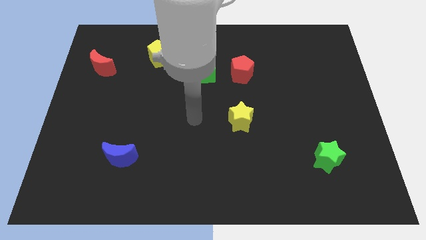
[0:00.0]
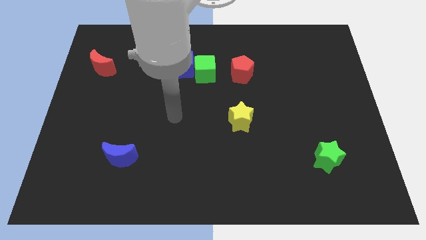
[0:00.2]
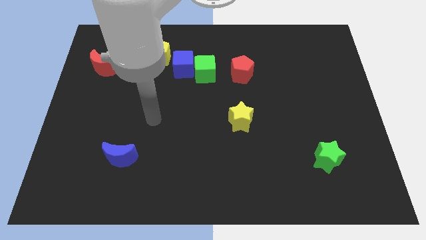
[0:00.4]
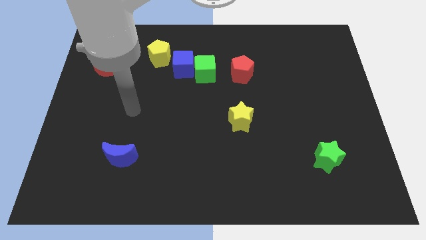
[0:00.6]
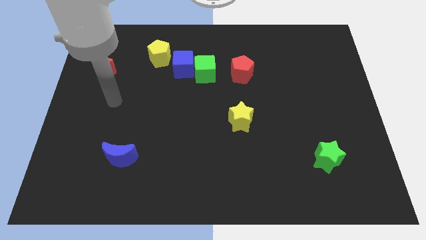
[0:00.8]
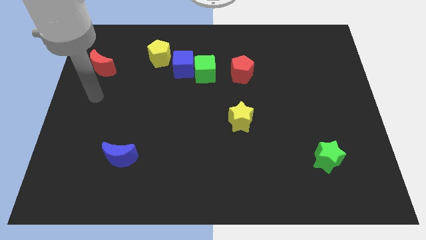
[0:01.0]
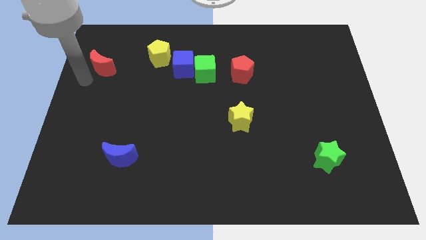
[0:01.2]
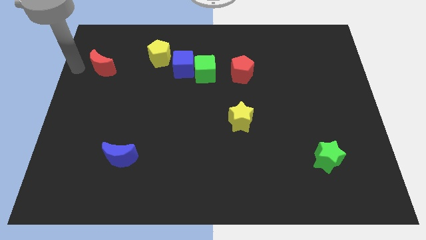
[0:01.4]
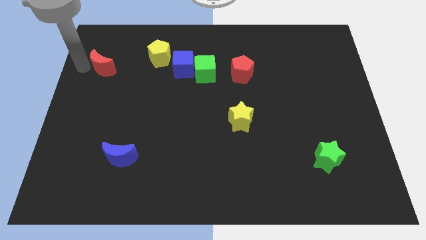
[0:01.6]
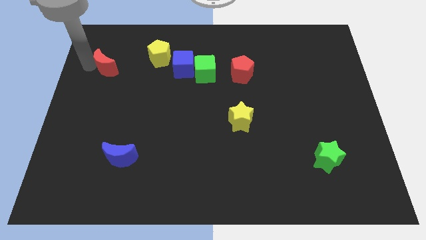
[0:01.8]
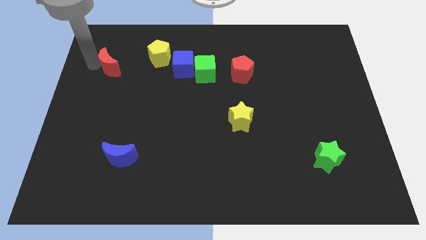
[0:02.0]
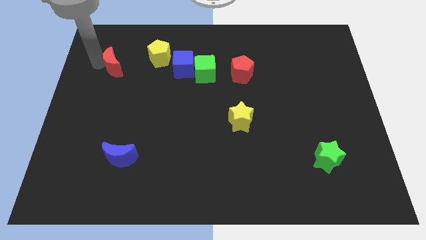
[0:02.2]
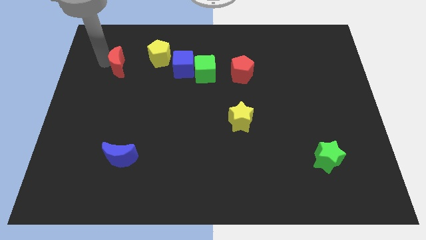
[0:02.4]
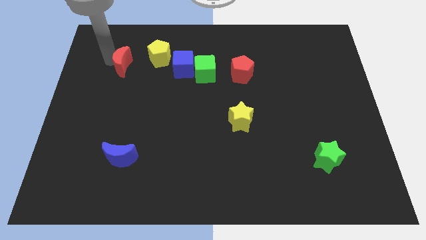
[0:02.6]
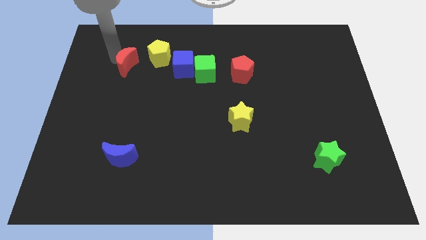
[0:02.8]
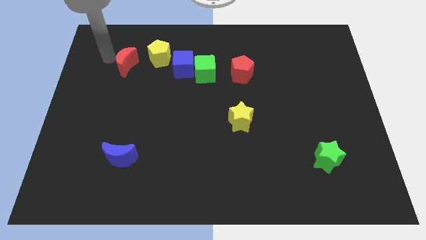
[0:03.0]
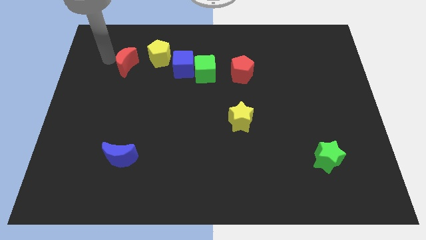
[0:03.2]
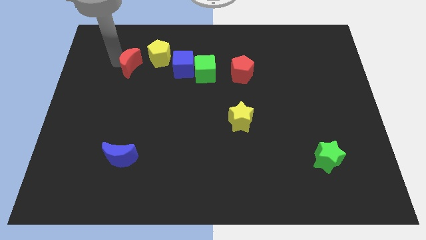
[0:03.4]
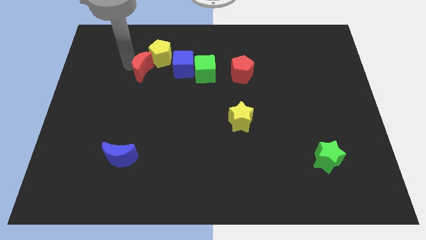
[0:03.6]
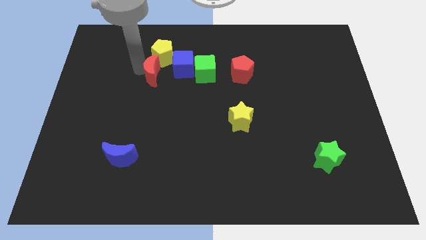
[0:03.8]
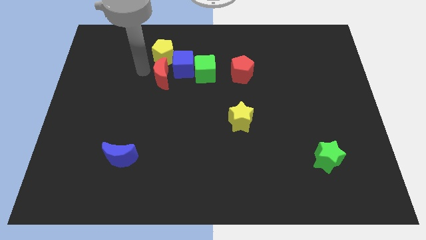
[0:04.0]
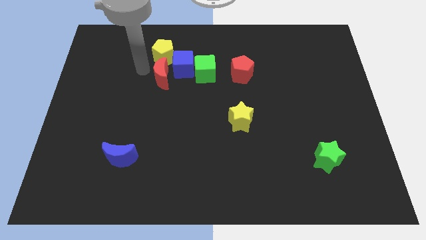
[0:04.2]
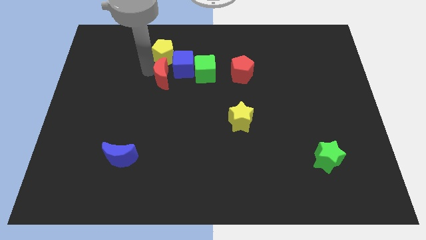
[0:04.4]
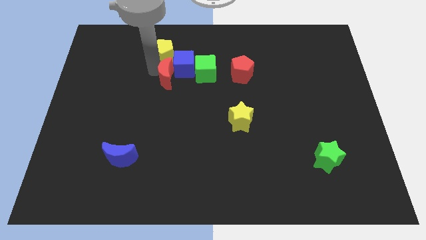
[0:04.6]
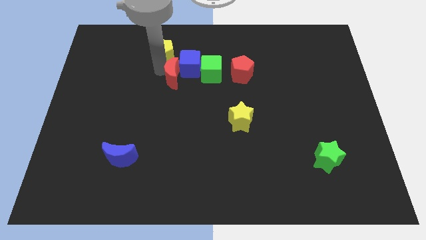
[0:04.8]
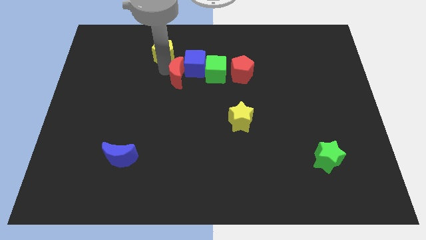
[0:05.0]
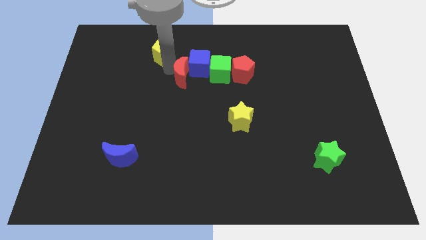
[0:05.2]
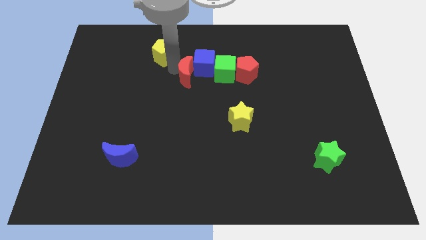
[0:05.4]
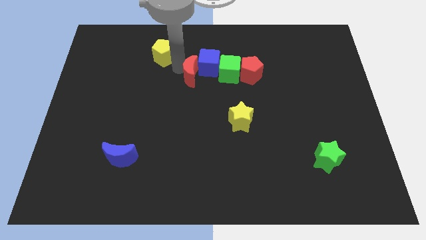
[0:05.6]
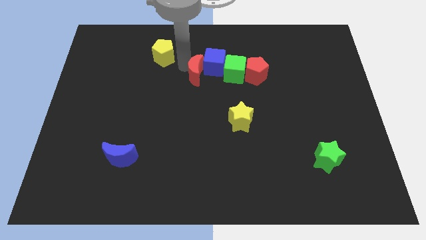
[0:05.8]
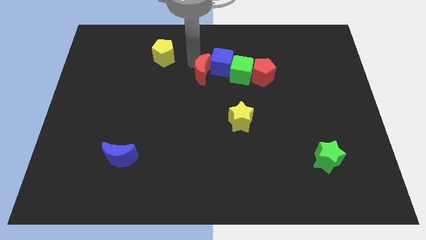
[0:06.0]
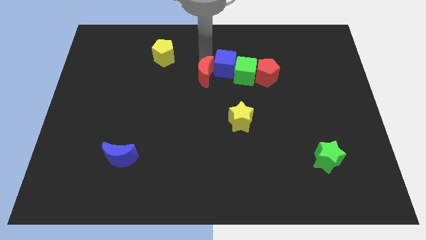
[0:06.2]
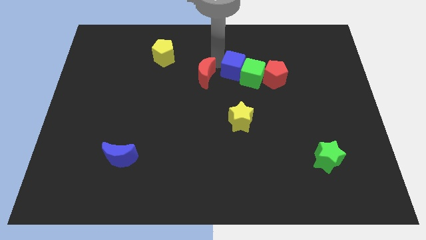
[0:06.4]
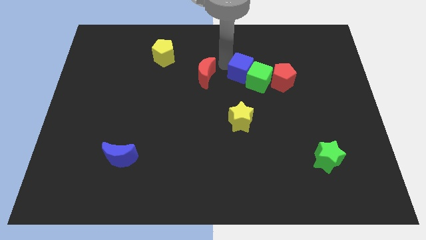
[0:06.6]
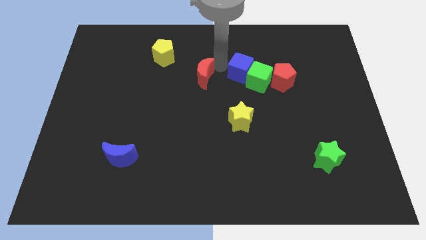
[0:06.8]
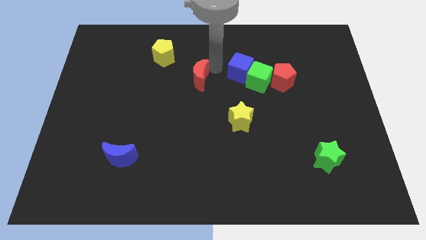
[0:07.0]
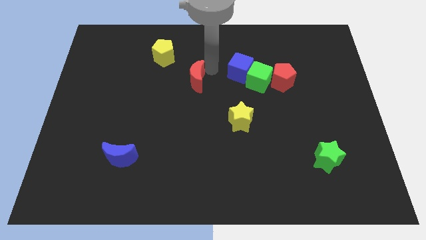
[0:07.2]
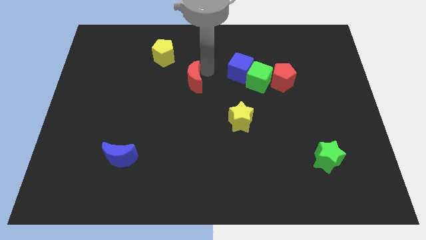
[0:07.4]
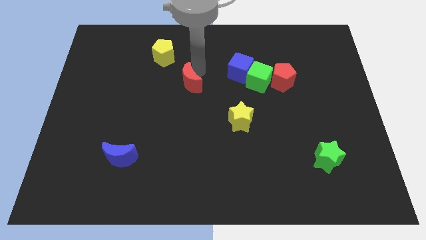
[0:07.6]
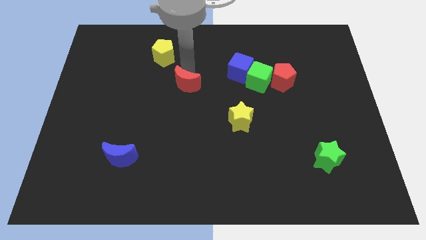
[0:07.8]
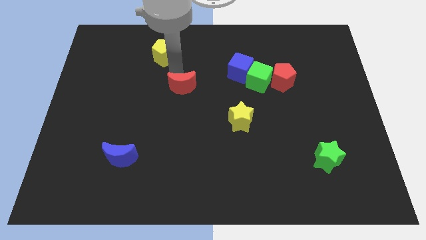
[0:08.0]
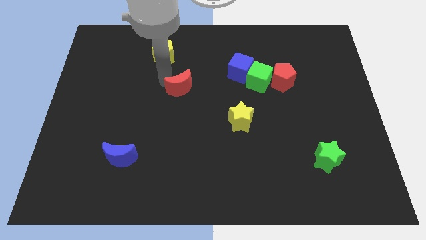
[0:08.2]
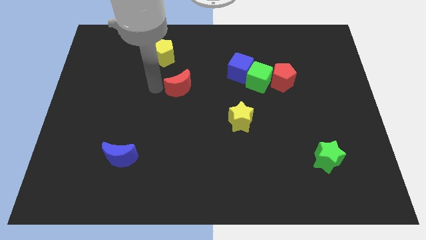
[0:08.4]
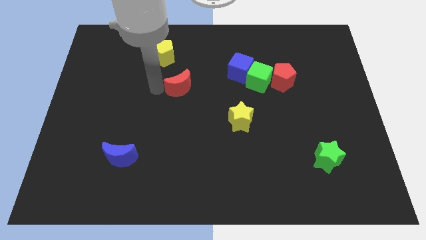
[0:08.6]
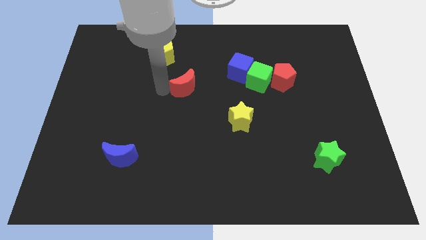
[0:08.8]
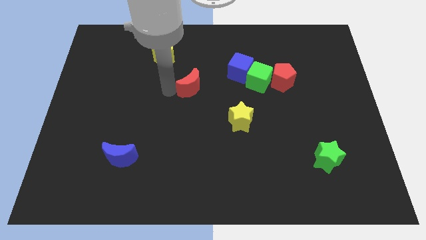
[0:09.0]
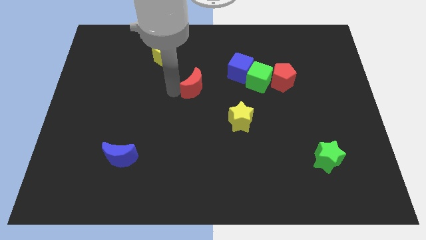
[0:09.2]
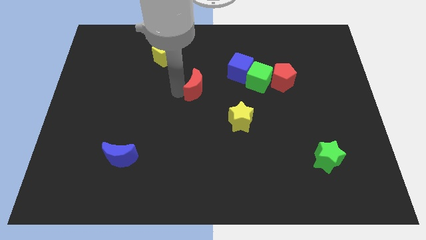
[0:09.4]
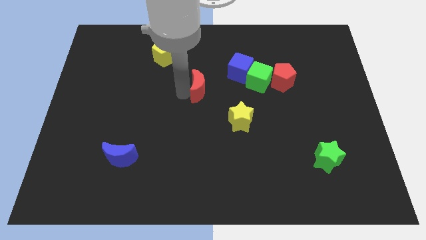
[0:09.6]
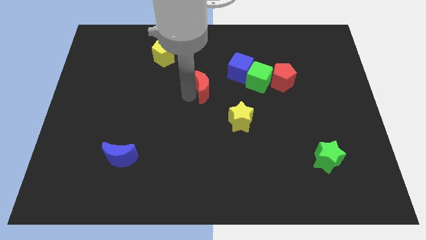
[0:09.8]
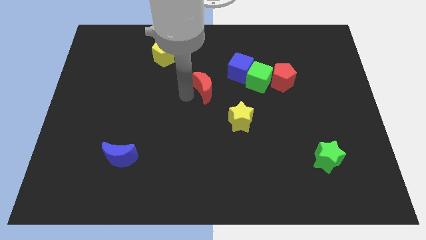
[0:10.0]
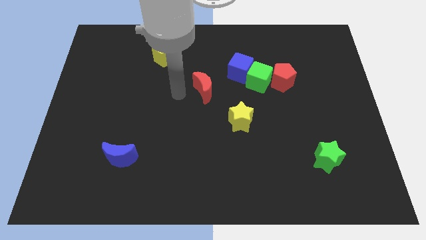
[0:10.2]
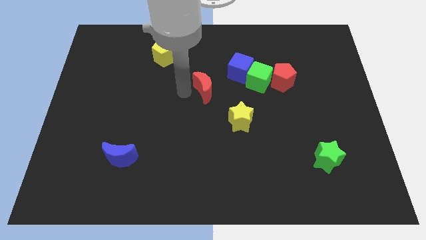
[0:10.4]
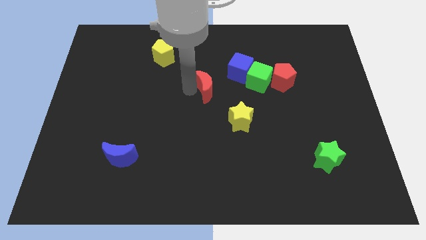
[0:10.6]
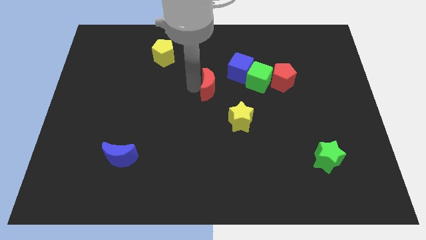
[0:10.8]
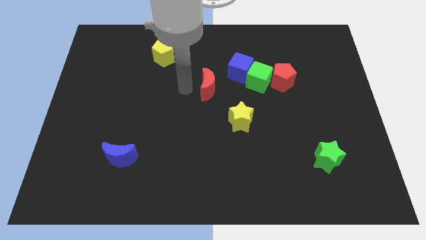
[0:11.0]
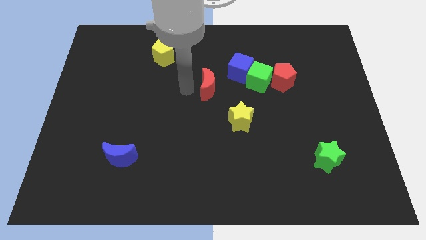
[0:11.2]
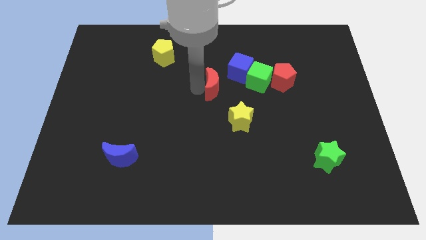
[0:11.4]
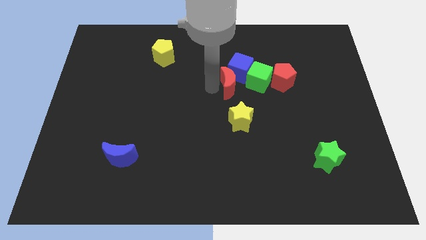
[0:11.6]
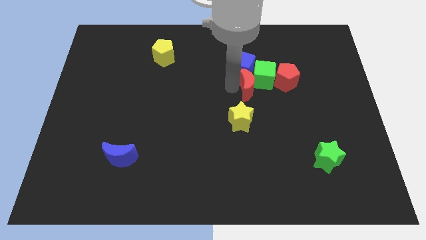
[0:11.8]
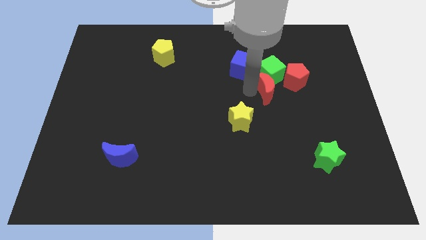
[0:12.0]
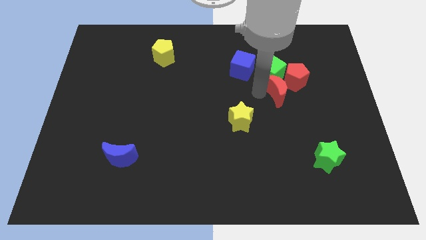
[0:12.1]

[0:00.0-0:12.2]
slide the red moon towards the red pentagon

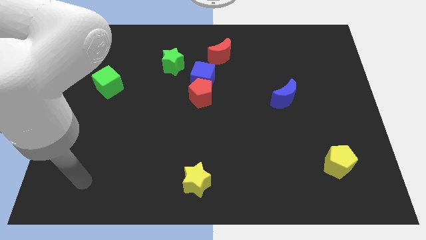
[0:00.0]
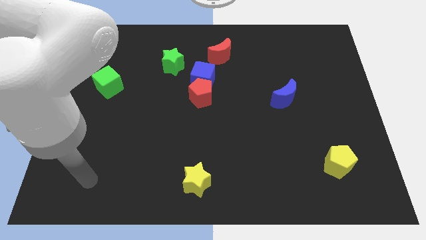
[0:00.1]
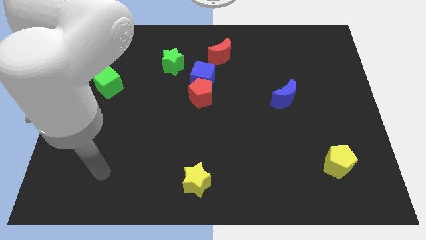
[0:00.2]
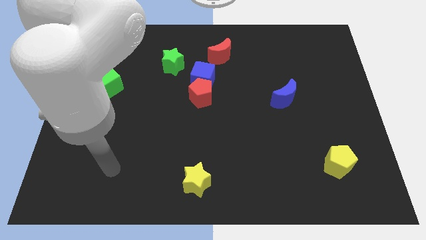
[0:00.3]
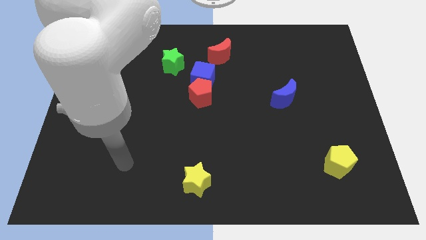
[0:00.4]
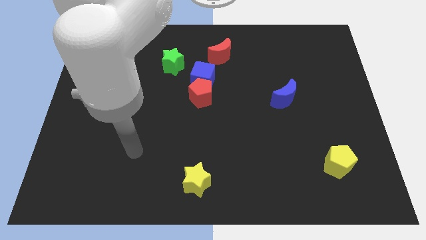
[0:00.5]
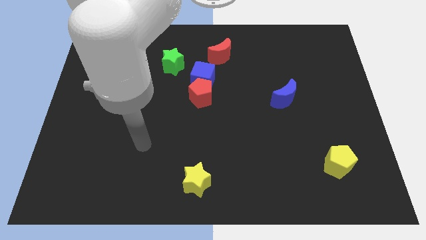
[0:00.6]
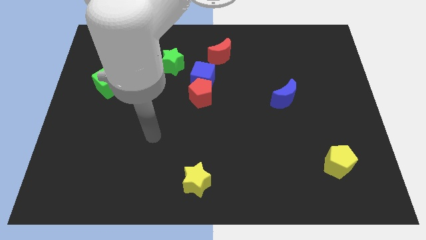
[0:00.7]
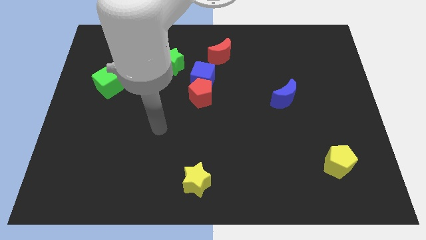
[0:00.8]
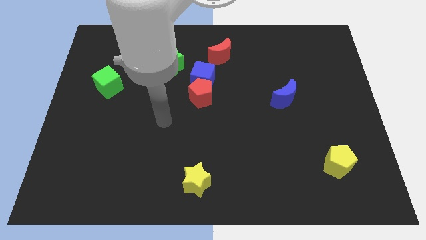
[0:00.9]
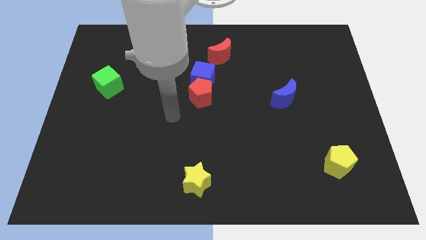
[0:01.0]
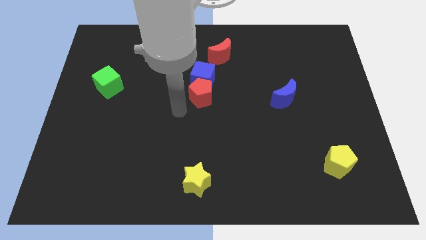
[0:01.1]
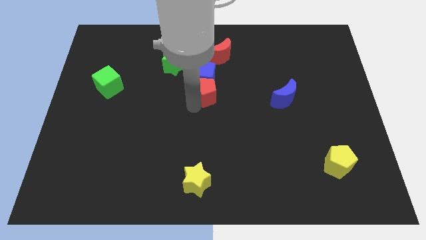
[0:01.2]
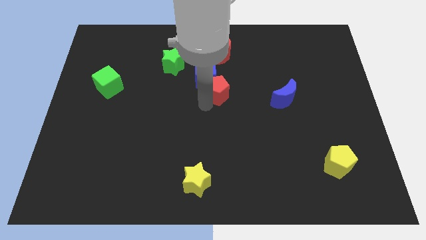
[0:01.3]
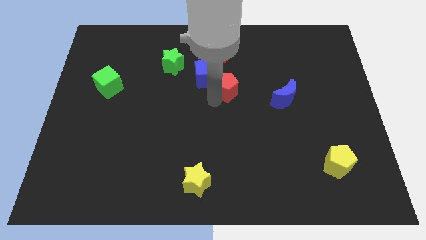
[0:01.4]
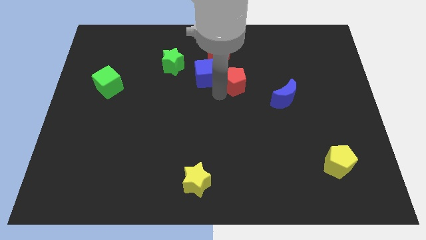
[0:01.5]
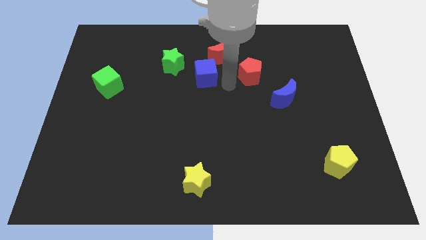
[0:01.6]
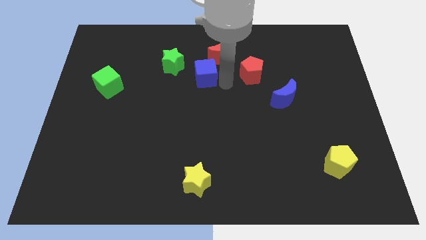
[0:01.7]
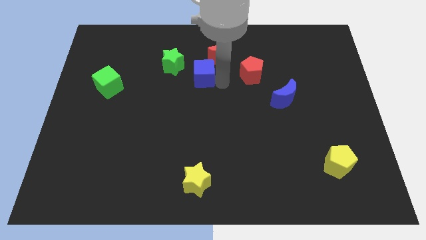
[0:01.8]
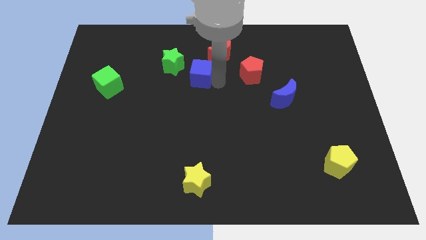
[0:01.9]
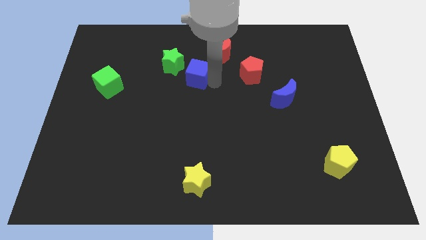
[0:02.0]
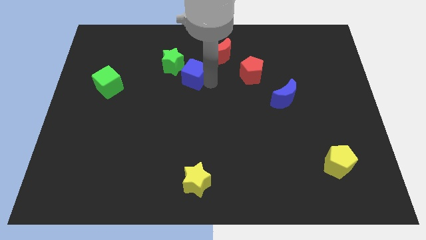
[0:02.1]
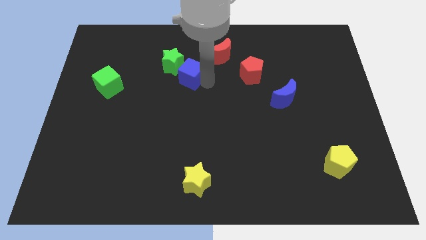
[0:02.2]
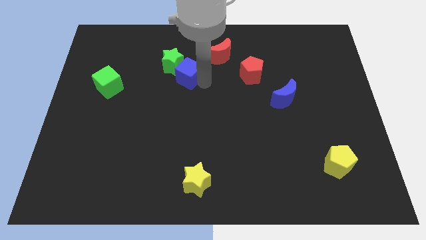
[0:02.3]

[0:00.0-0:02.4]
put the blue cube close to the green star
